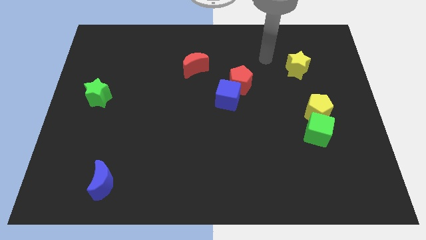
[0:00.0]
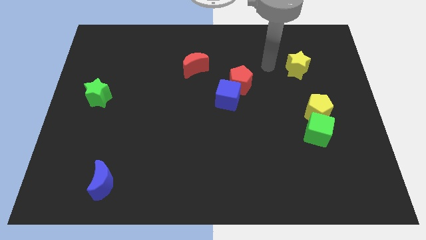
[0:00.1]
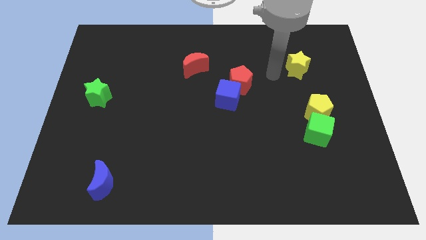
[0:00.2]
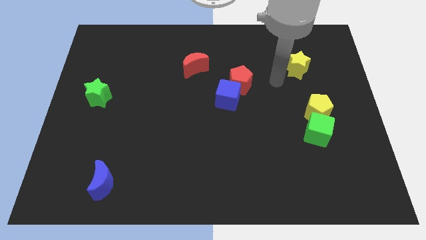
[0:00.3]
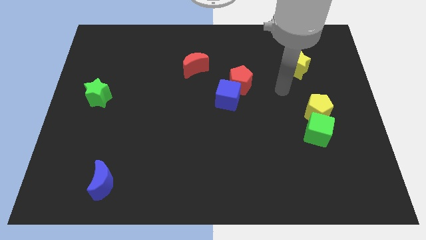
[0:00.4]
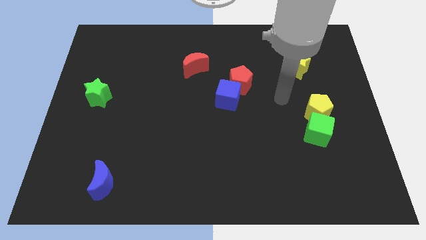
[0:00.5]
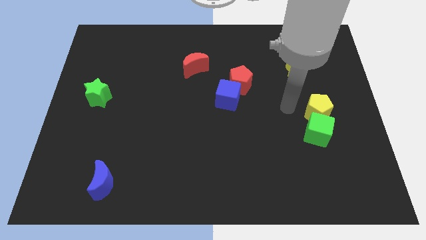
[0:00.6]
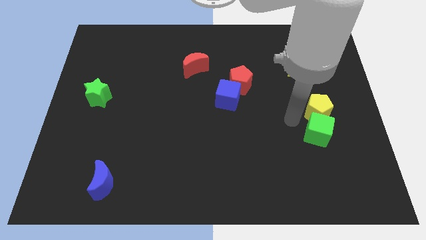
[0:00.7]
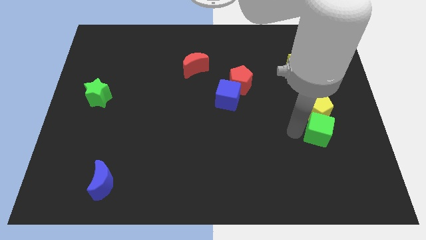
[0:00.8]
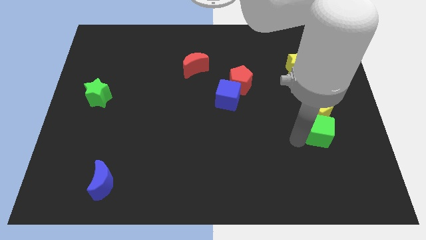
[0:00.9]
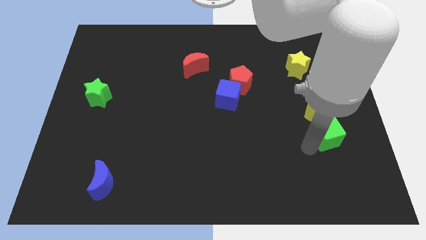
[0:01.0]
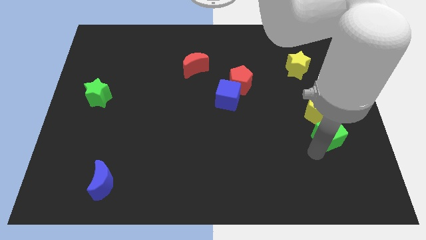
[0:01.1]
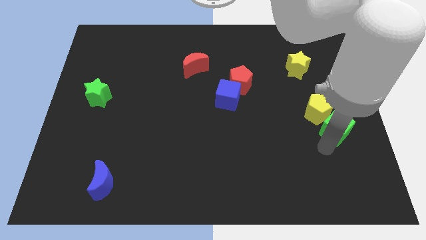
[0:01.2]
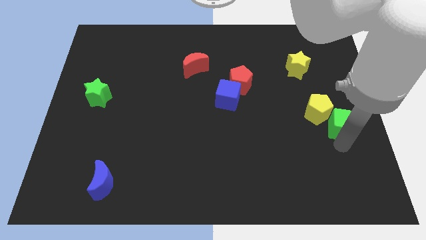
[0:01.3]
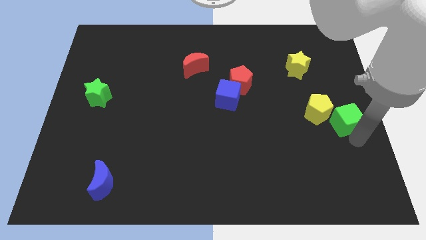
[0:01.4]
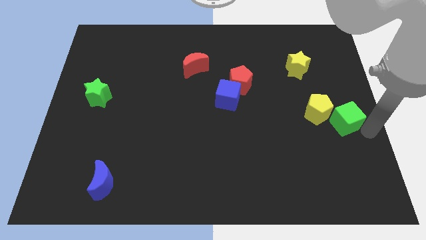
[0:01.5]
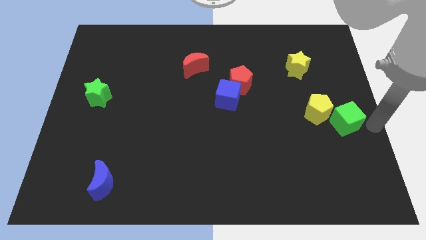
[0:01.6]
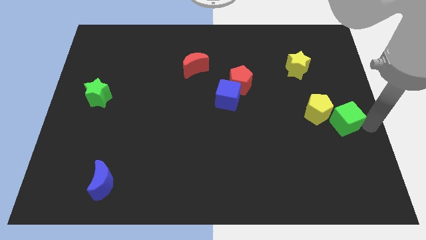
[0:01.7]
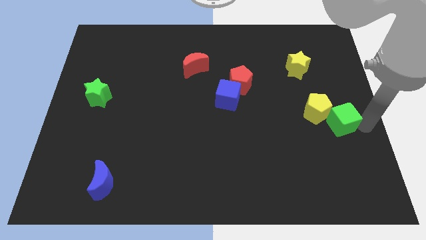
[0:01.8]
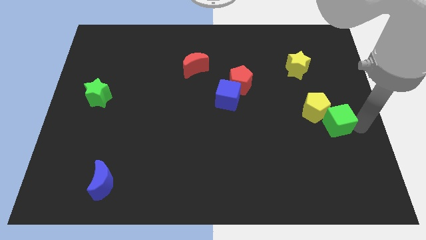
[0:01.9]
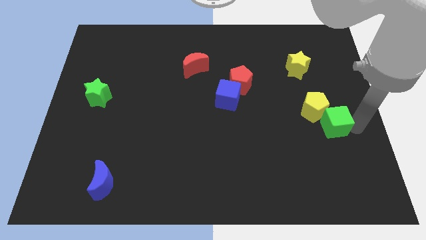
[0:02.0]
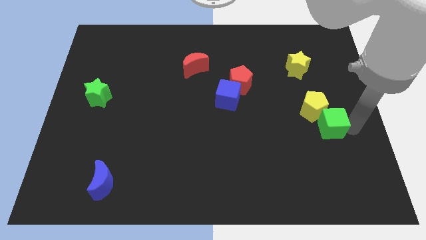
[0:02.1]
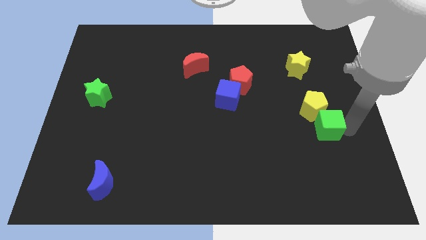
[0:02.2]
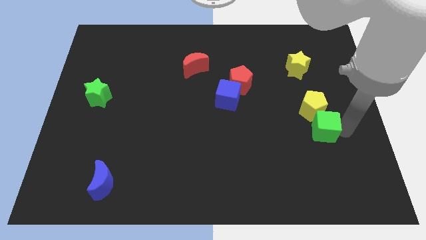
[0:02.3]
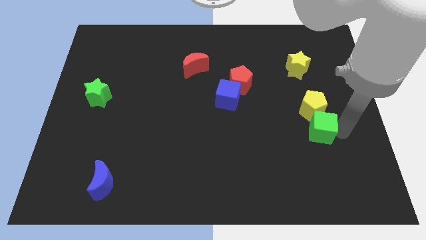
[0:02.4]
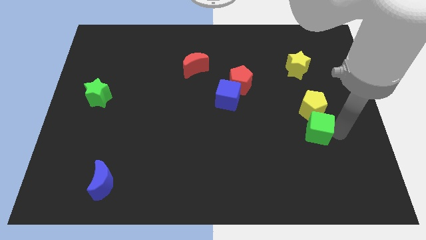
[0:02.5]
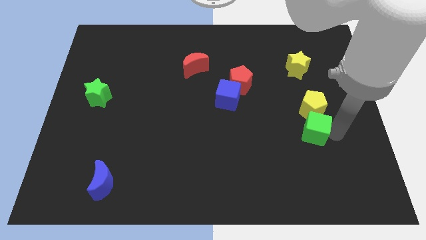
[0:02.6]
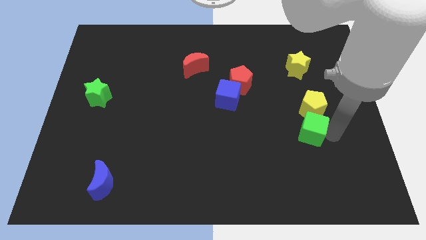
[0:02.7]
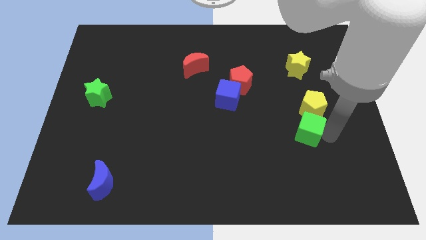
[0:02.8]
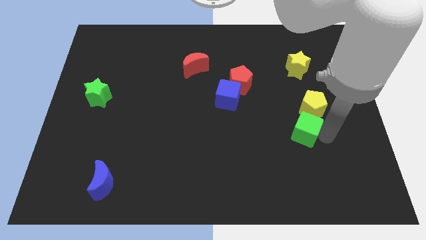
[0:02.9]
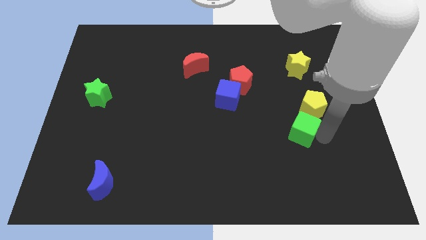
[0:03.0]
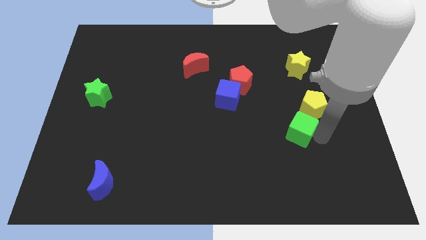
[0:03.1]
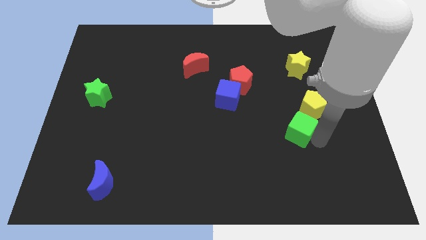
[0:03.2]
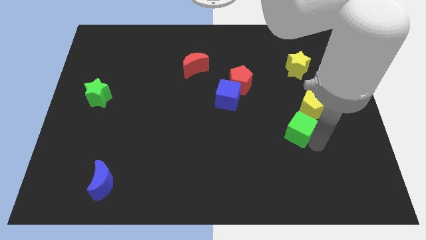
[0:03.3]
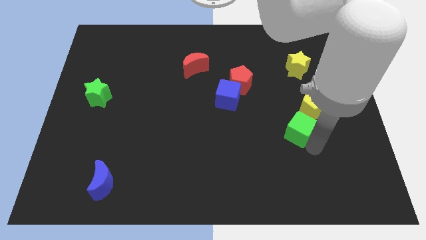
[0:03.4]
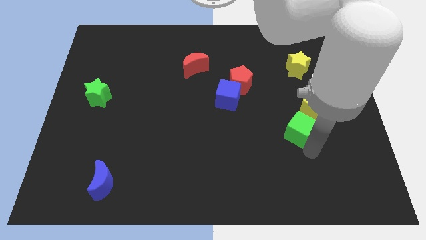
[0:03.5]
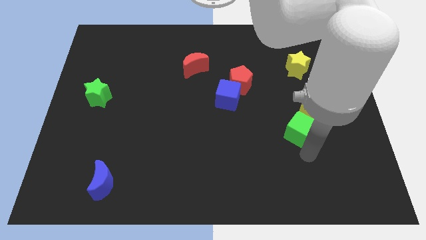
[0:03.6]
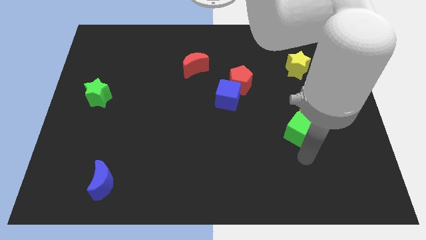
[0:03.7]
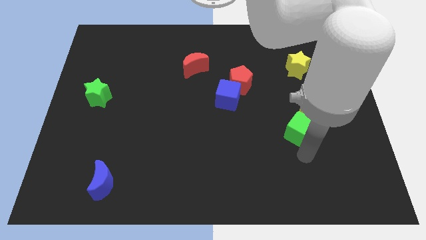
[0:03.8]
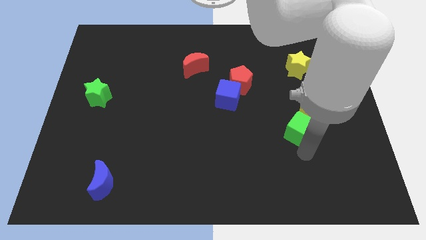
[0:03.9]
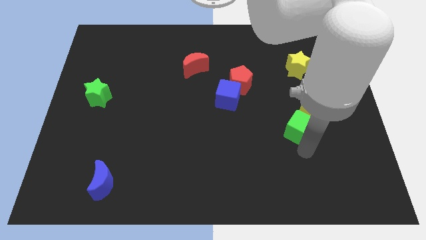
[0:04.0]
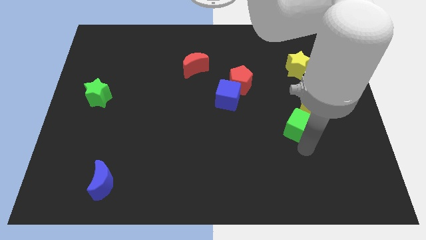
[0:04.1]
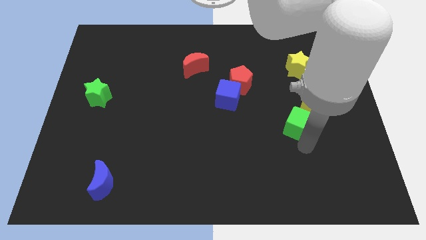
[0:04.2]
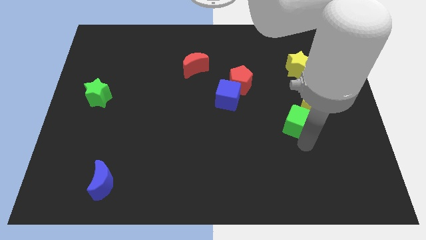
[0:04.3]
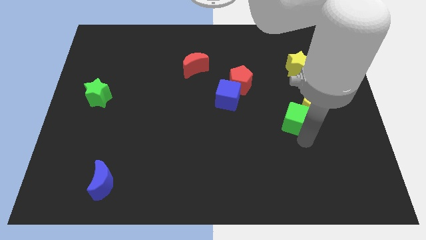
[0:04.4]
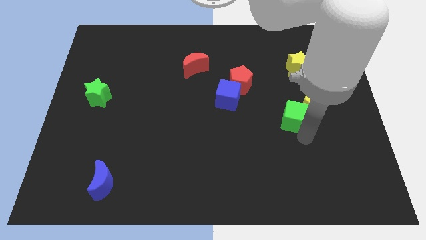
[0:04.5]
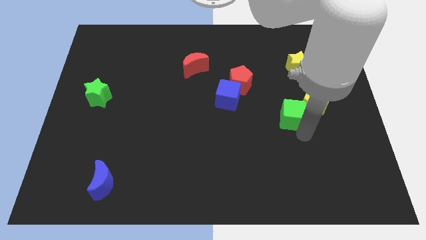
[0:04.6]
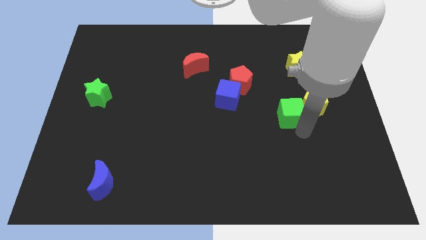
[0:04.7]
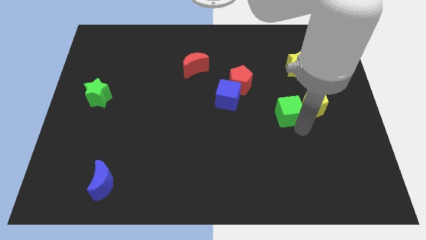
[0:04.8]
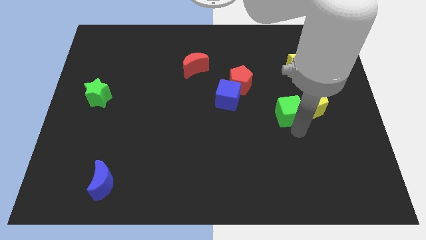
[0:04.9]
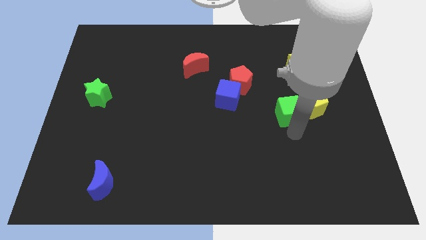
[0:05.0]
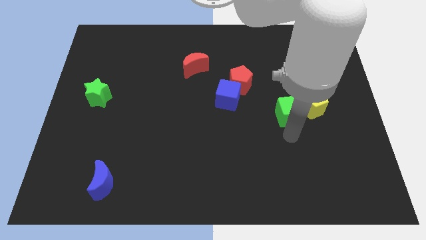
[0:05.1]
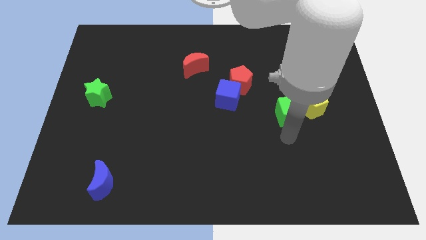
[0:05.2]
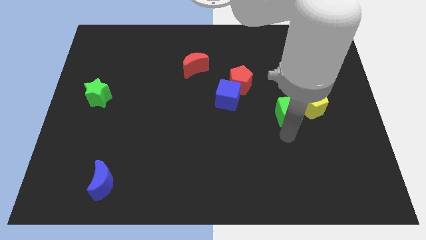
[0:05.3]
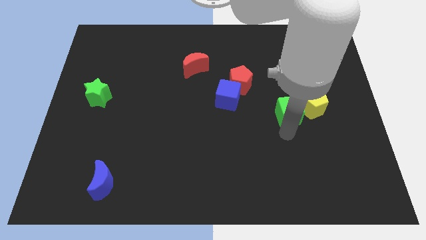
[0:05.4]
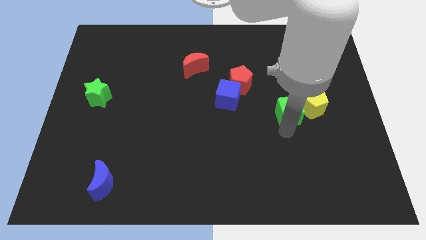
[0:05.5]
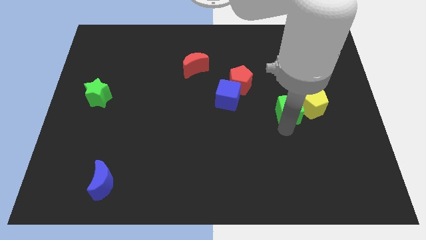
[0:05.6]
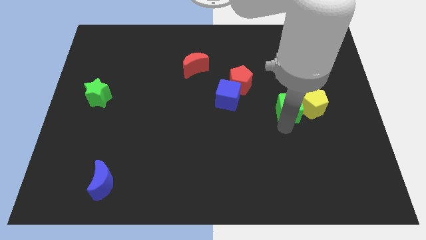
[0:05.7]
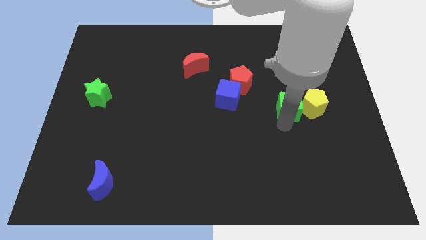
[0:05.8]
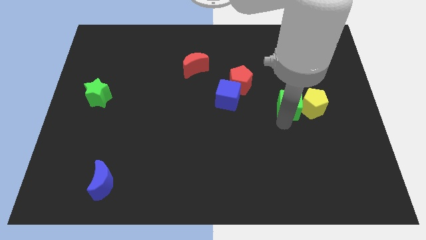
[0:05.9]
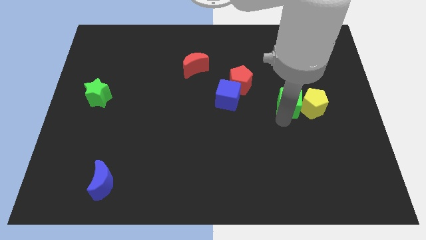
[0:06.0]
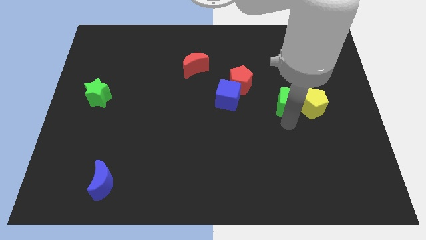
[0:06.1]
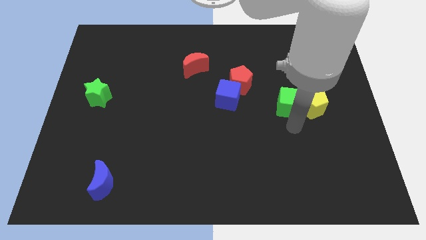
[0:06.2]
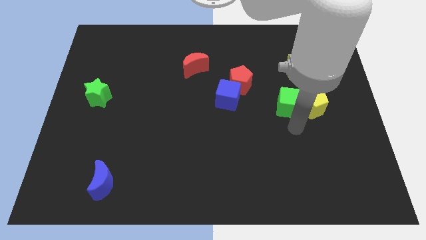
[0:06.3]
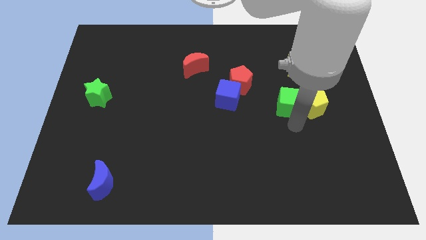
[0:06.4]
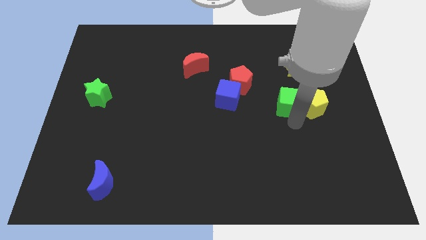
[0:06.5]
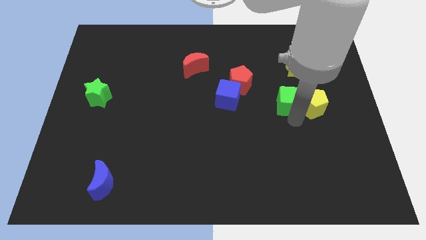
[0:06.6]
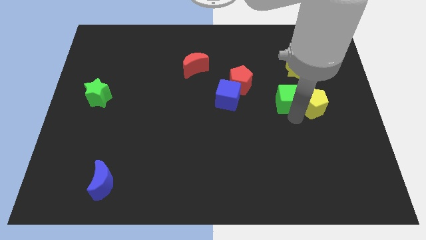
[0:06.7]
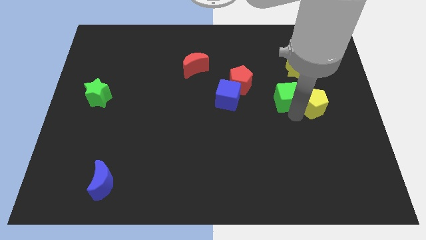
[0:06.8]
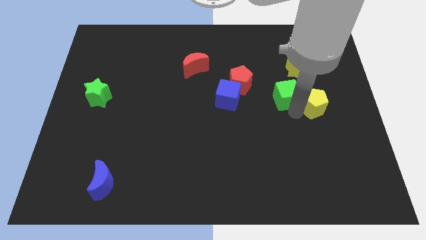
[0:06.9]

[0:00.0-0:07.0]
slide the green cube right of the red pentagon

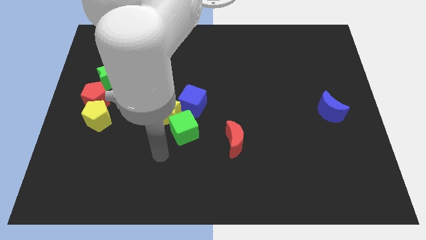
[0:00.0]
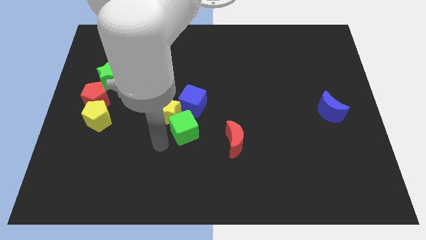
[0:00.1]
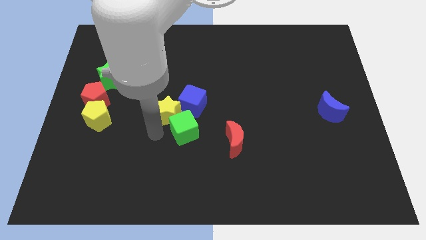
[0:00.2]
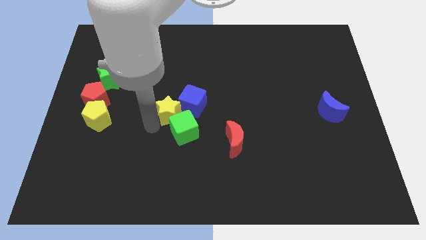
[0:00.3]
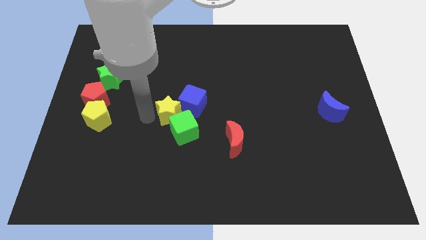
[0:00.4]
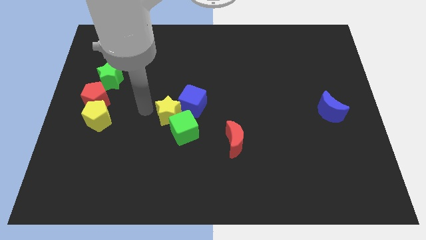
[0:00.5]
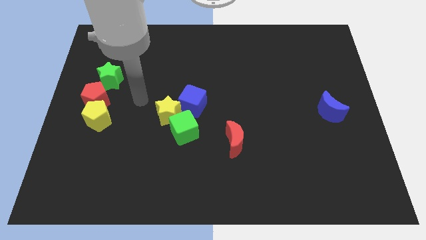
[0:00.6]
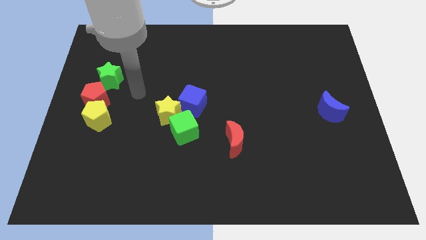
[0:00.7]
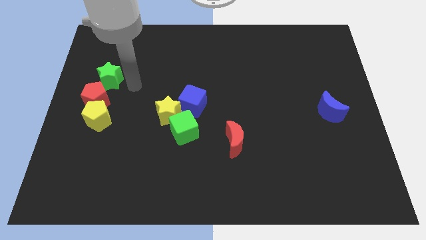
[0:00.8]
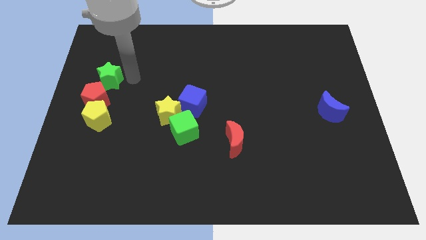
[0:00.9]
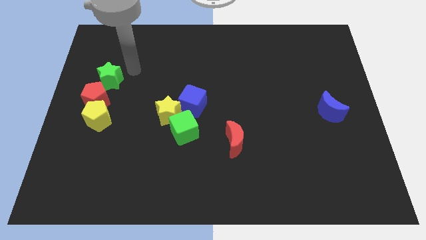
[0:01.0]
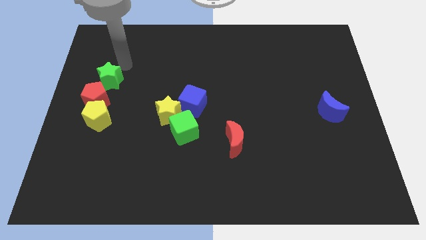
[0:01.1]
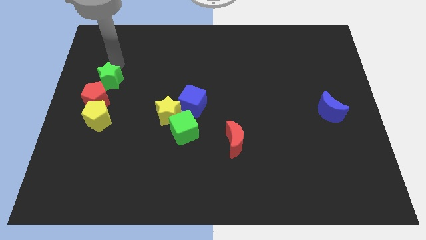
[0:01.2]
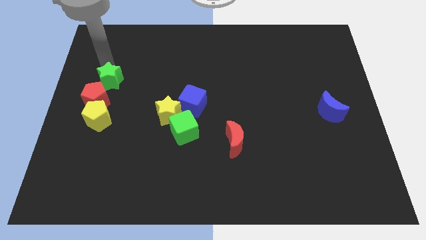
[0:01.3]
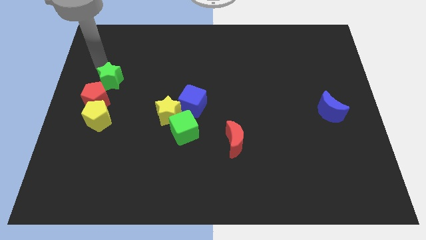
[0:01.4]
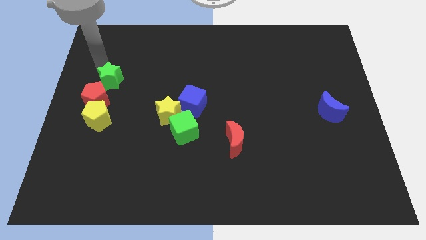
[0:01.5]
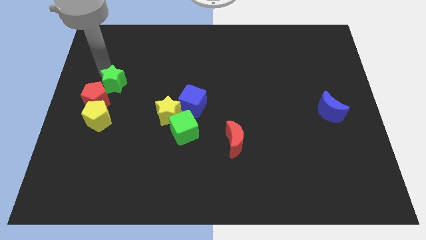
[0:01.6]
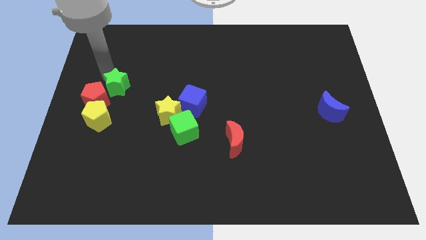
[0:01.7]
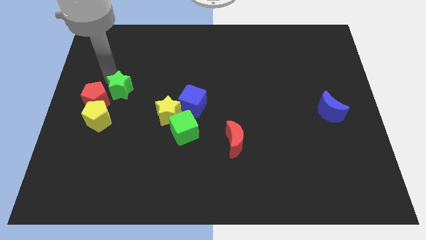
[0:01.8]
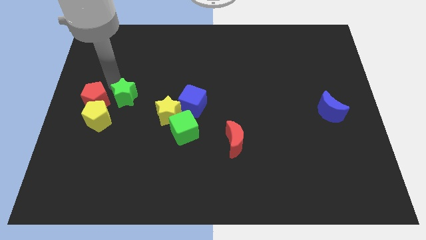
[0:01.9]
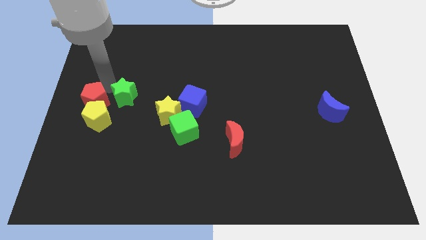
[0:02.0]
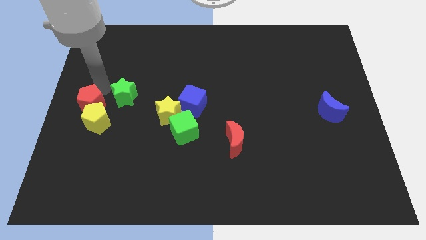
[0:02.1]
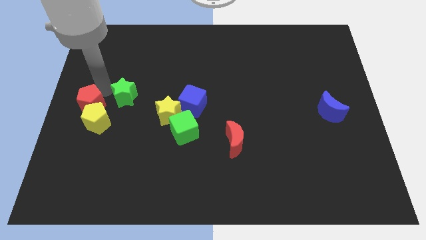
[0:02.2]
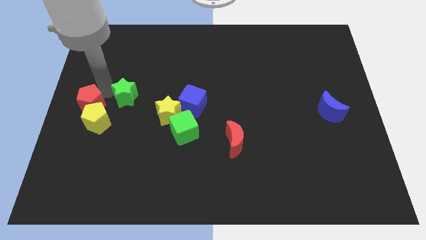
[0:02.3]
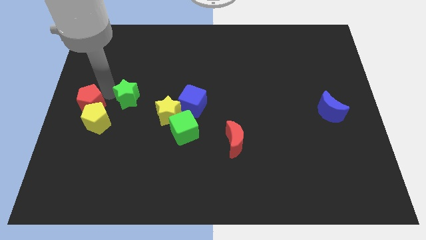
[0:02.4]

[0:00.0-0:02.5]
slide the green star just left of the blue cube
